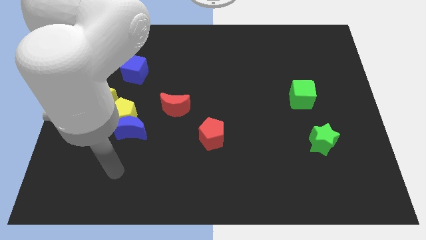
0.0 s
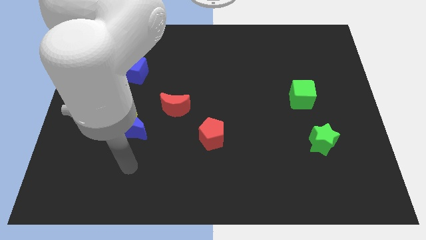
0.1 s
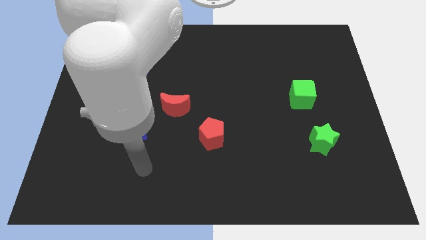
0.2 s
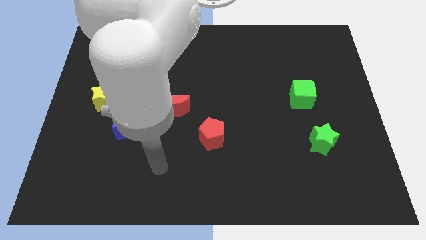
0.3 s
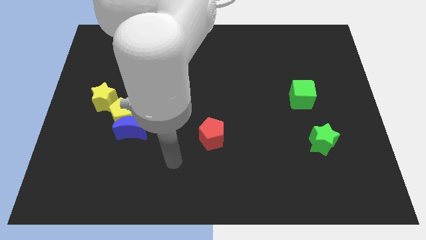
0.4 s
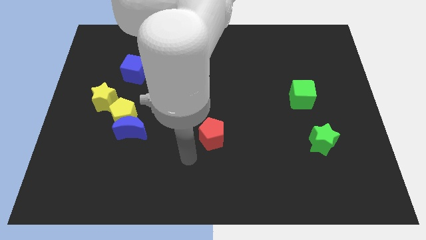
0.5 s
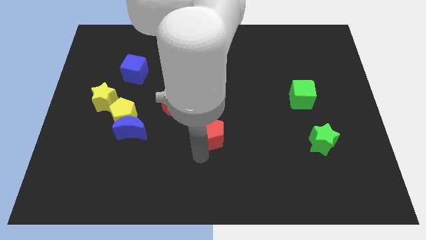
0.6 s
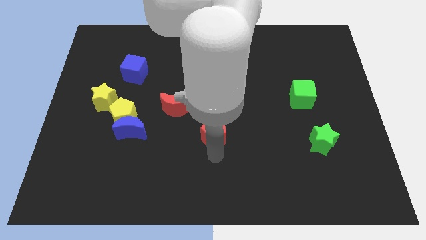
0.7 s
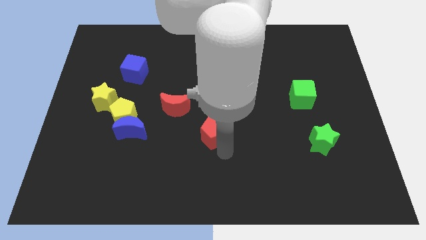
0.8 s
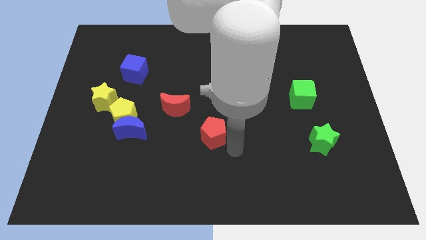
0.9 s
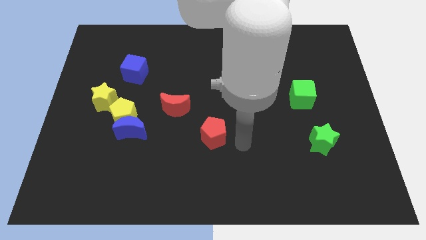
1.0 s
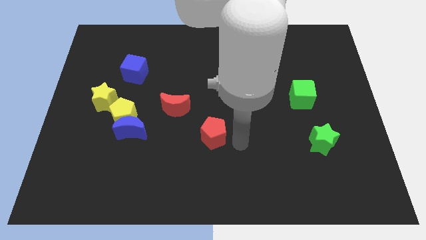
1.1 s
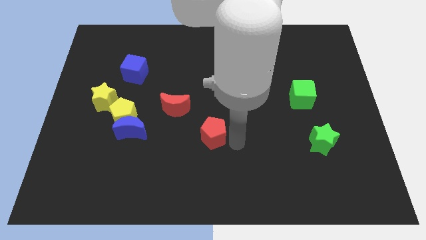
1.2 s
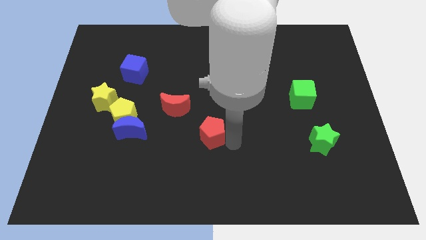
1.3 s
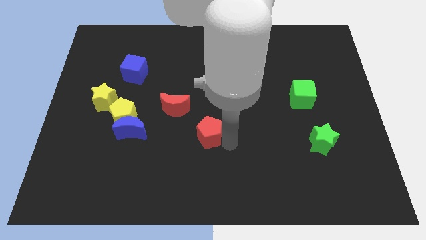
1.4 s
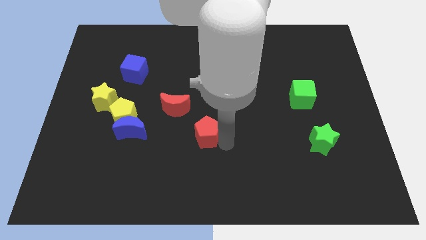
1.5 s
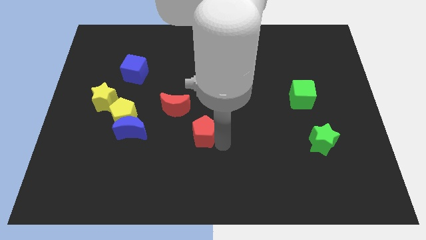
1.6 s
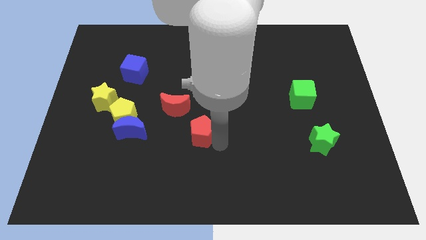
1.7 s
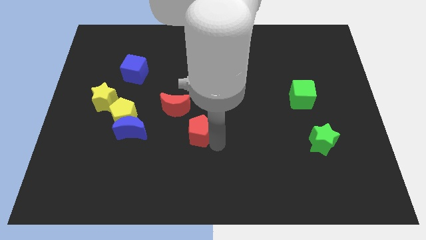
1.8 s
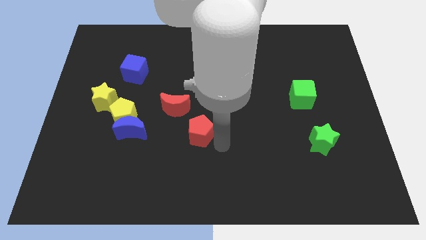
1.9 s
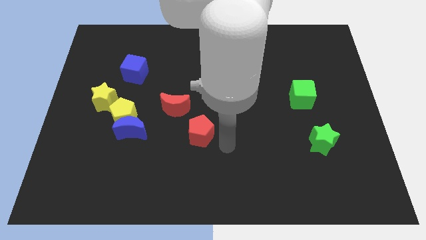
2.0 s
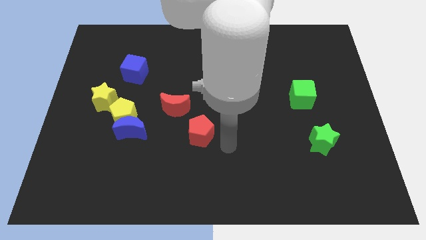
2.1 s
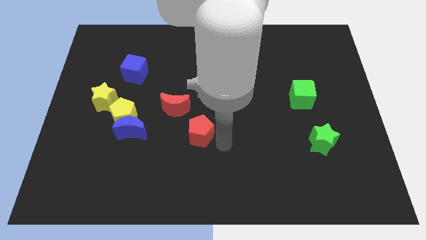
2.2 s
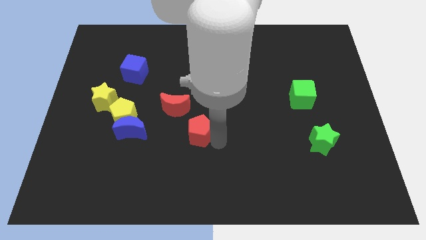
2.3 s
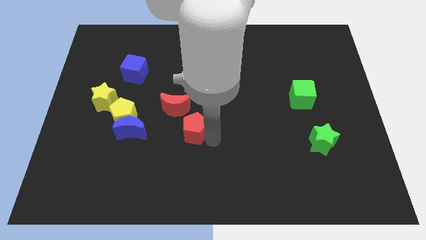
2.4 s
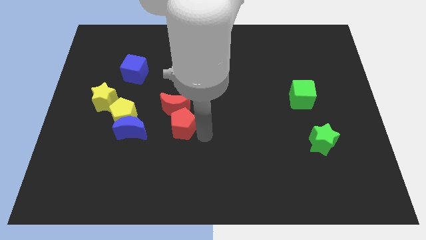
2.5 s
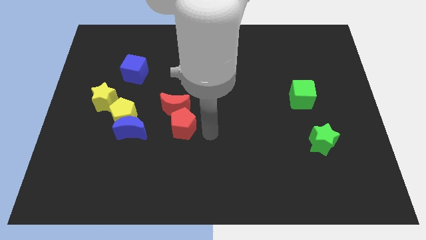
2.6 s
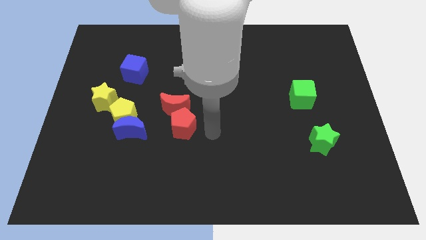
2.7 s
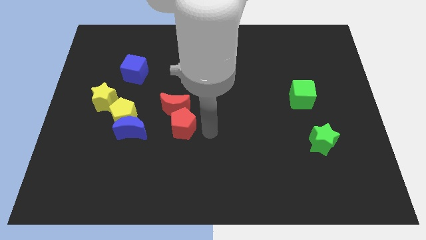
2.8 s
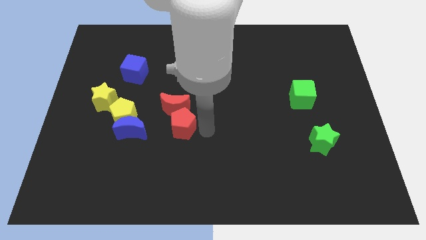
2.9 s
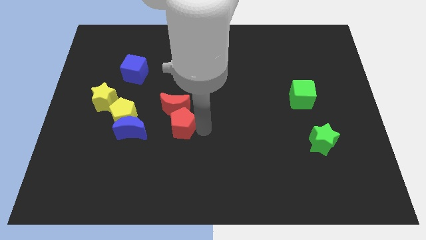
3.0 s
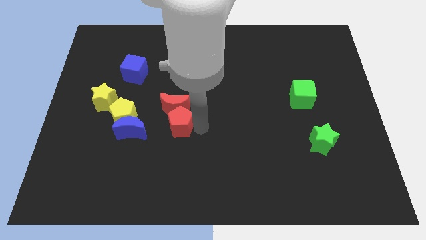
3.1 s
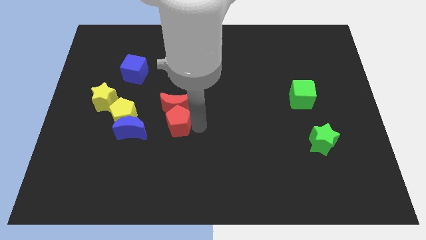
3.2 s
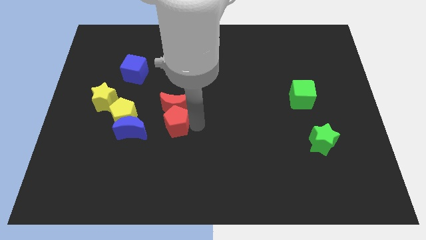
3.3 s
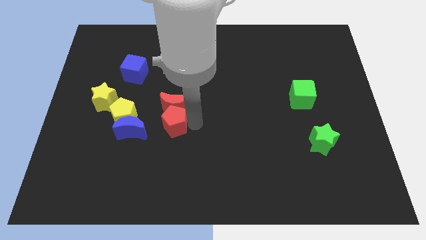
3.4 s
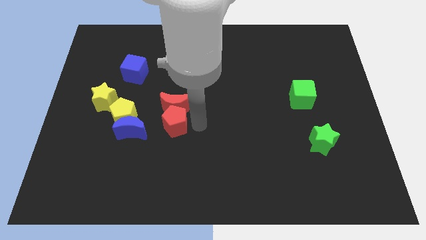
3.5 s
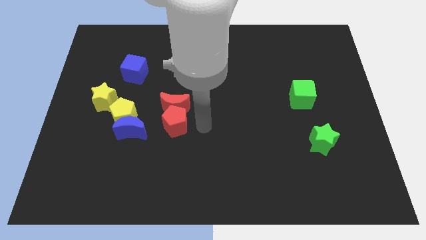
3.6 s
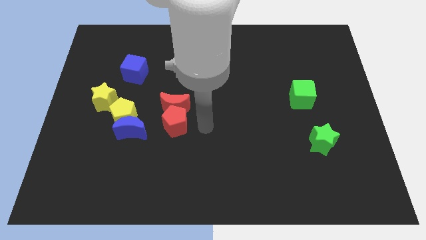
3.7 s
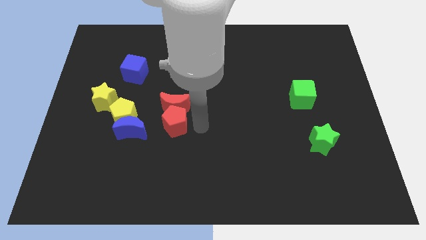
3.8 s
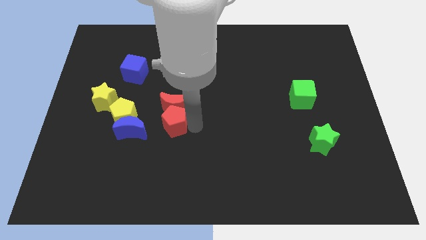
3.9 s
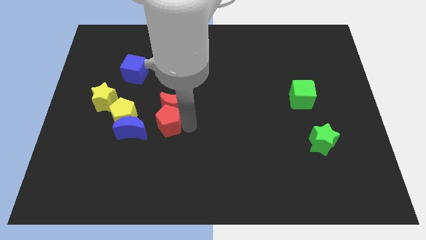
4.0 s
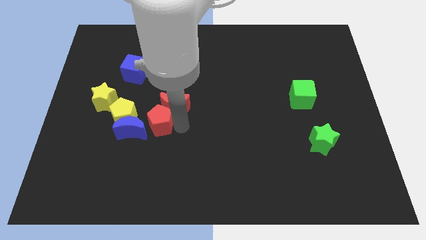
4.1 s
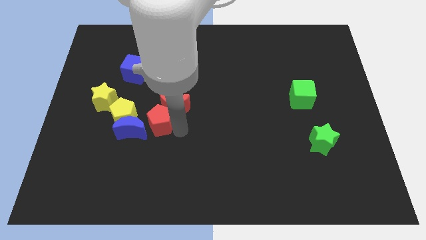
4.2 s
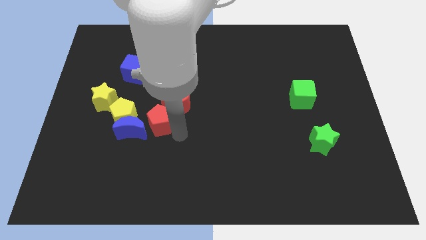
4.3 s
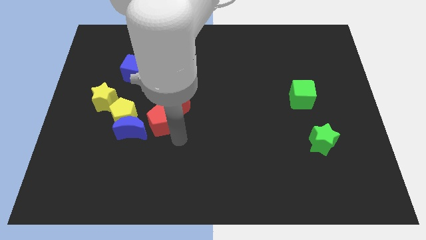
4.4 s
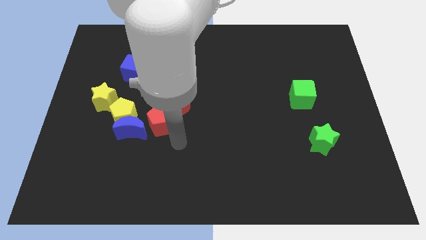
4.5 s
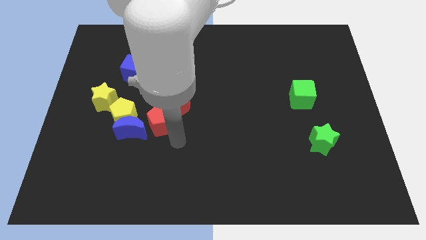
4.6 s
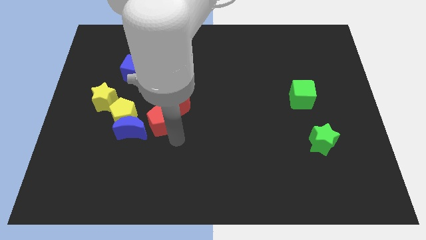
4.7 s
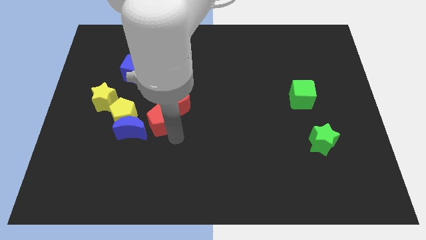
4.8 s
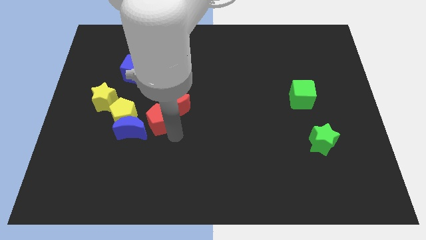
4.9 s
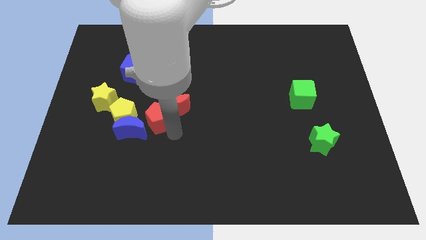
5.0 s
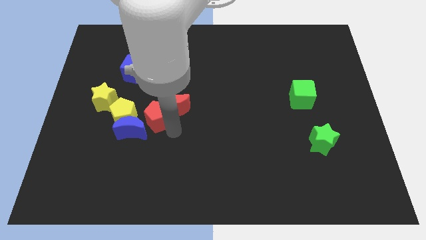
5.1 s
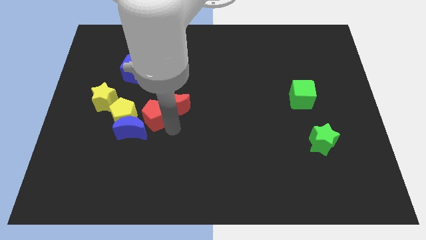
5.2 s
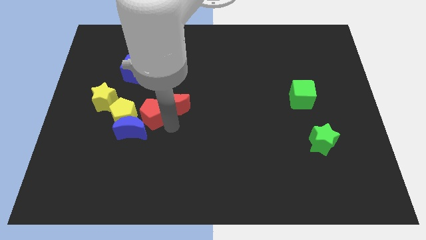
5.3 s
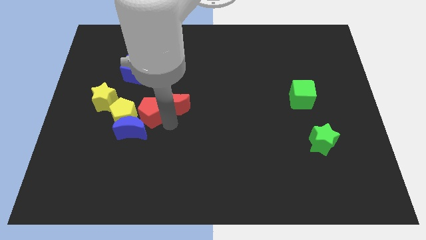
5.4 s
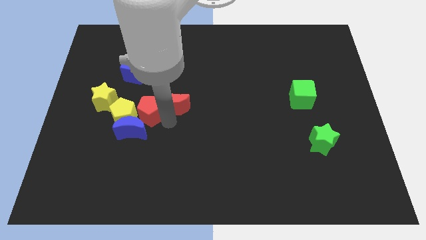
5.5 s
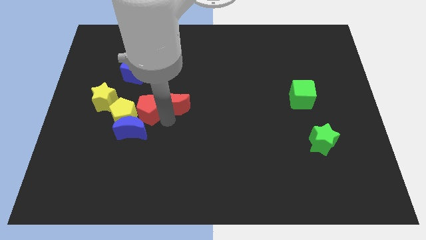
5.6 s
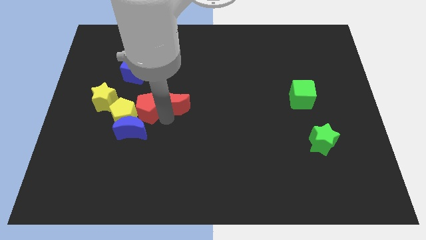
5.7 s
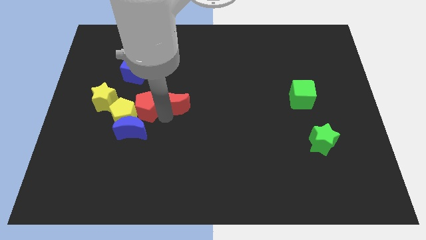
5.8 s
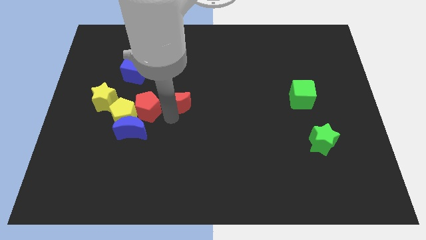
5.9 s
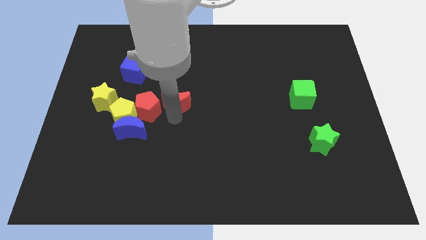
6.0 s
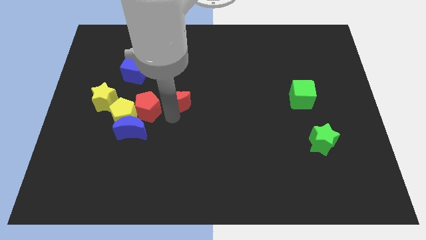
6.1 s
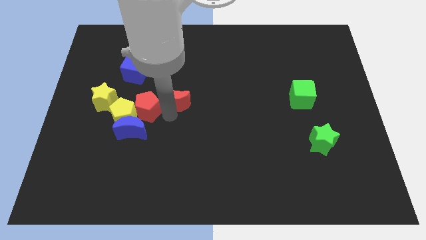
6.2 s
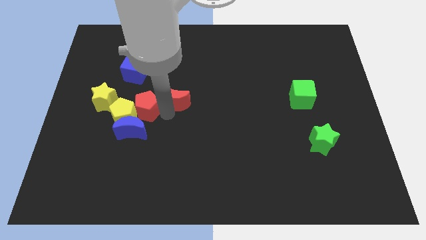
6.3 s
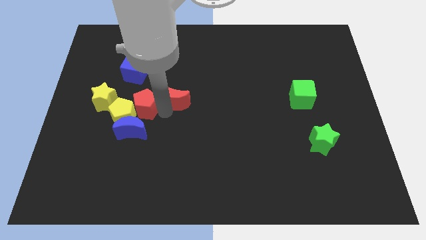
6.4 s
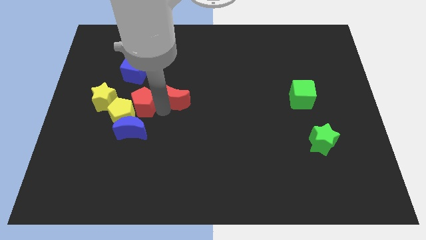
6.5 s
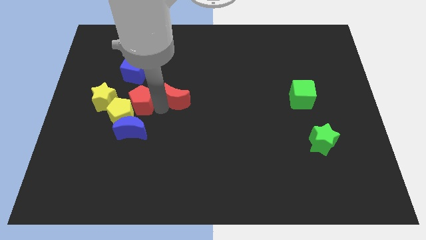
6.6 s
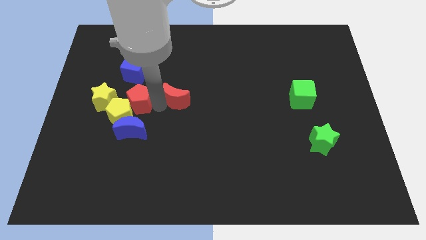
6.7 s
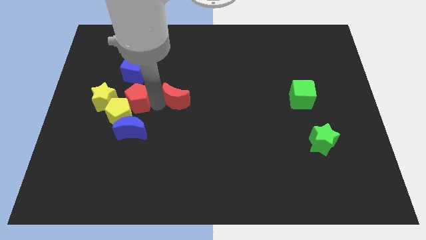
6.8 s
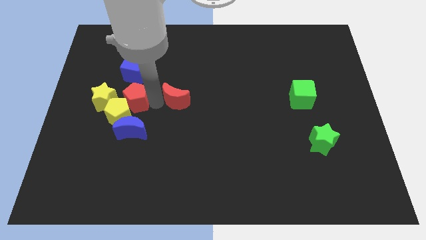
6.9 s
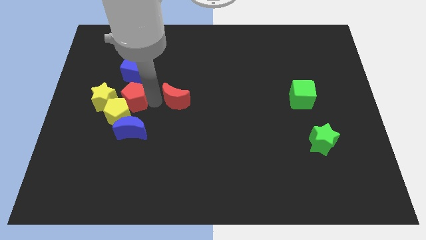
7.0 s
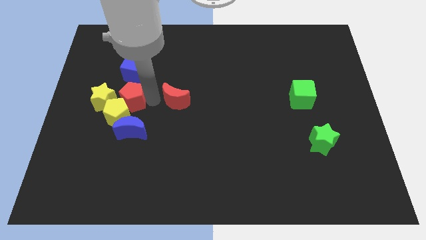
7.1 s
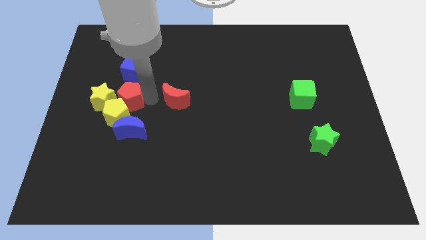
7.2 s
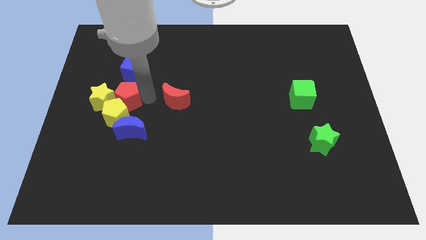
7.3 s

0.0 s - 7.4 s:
push the red pentagon to the yellow star

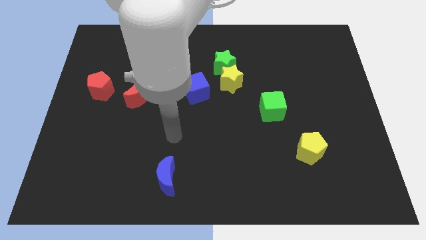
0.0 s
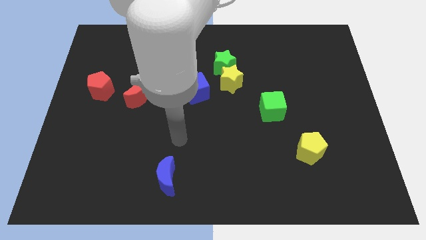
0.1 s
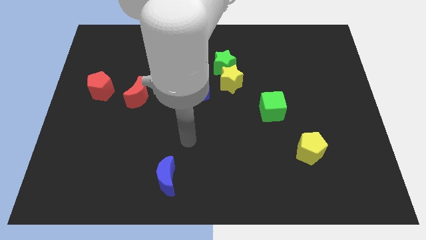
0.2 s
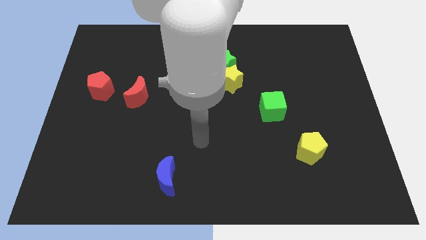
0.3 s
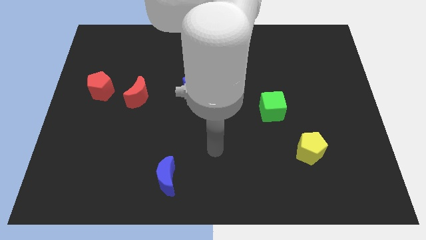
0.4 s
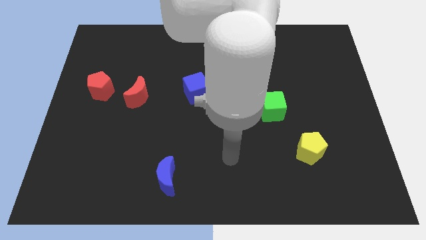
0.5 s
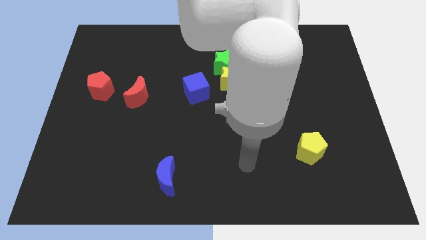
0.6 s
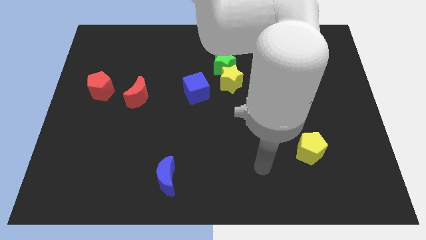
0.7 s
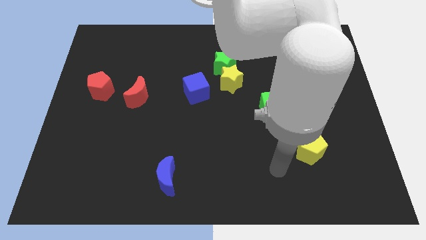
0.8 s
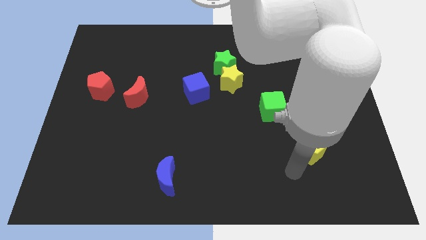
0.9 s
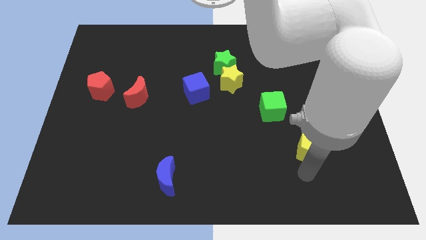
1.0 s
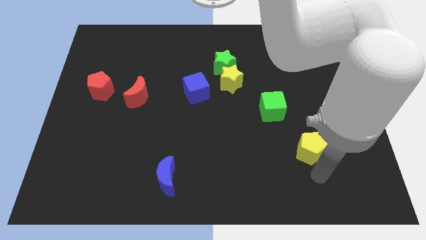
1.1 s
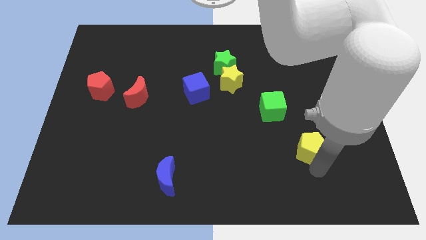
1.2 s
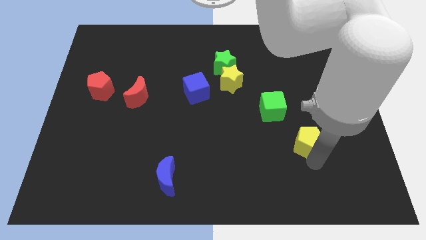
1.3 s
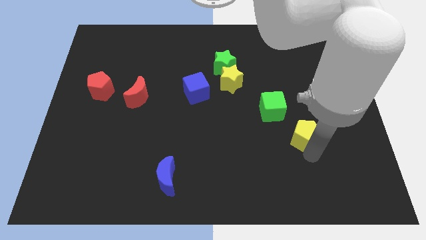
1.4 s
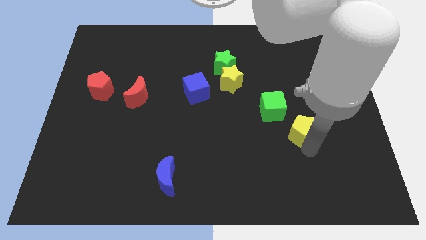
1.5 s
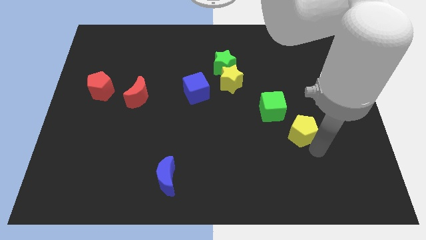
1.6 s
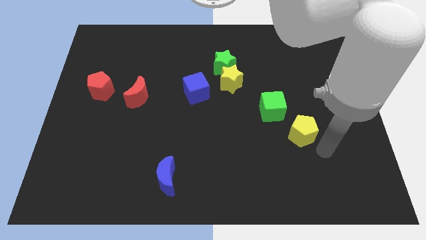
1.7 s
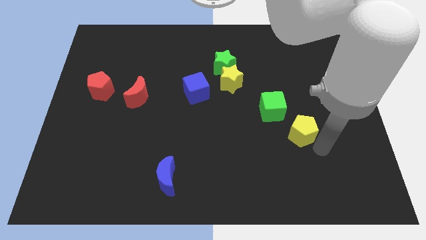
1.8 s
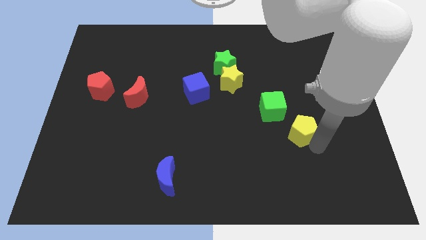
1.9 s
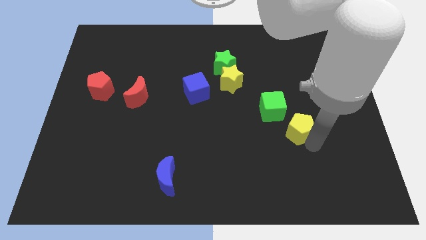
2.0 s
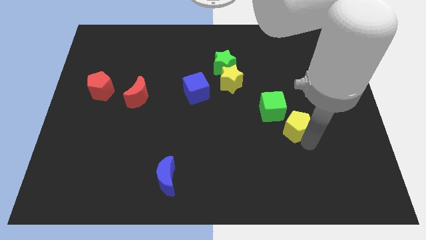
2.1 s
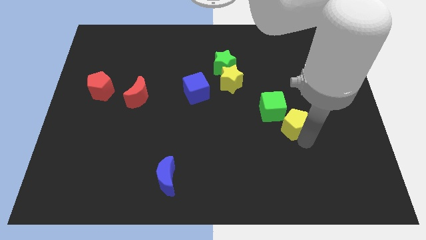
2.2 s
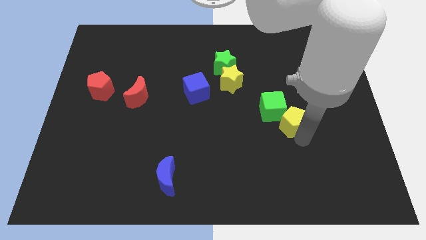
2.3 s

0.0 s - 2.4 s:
push the yellow pentagon towards the green cube
